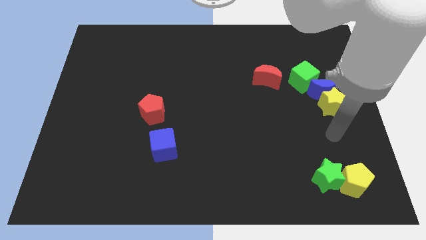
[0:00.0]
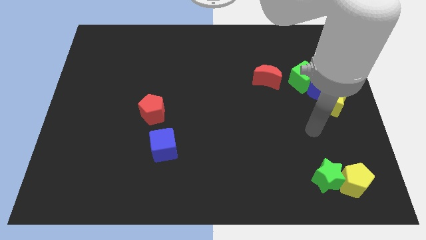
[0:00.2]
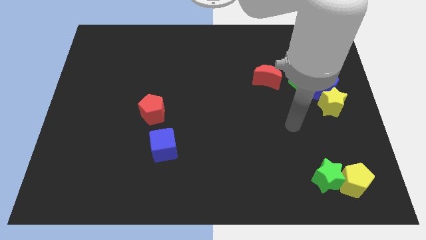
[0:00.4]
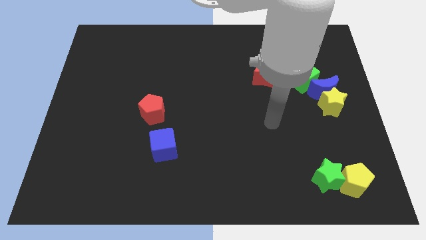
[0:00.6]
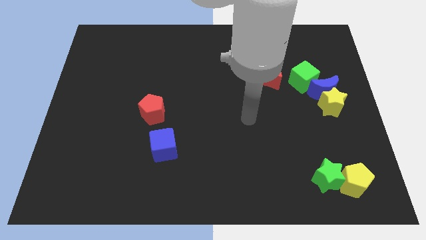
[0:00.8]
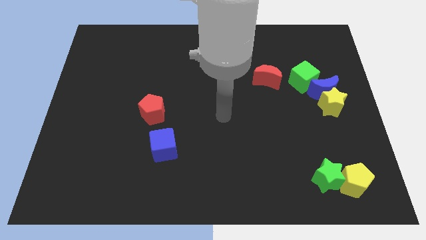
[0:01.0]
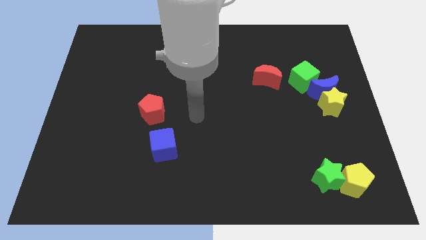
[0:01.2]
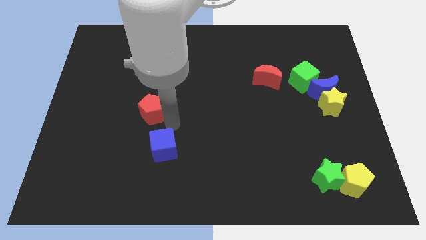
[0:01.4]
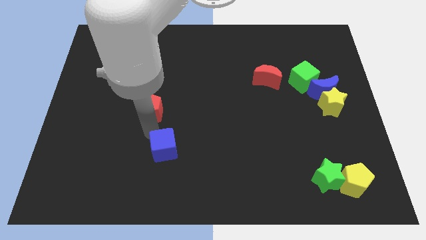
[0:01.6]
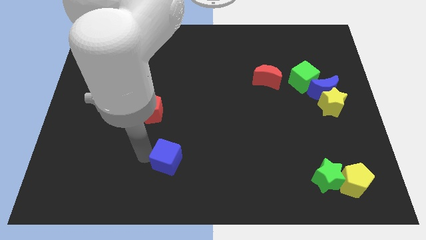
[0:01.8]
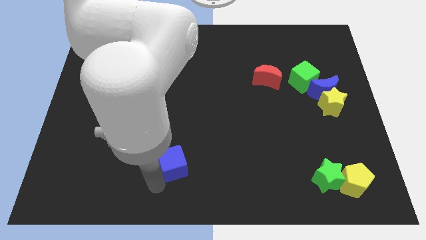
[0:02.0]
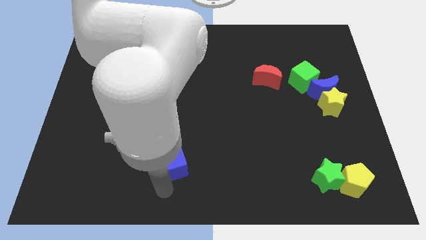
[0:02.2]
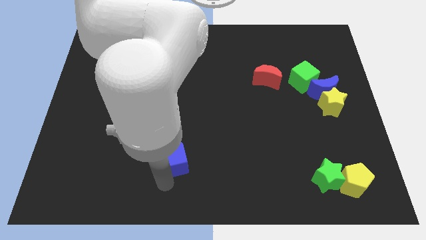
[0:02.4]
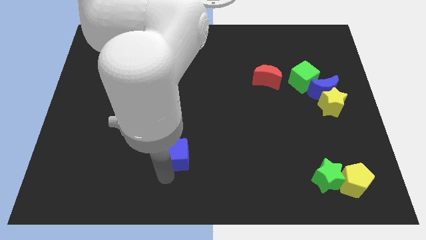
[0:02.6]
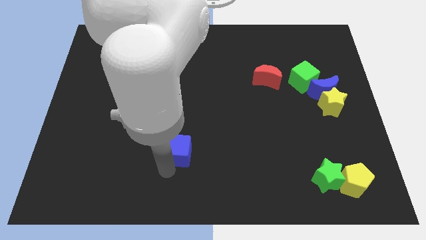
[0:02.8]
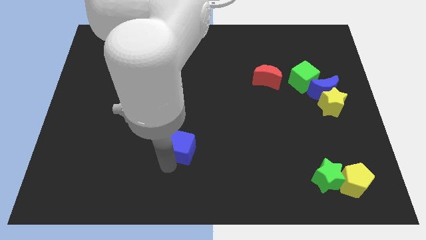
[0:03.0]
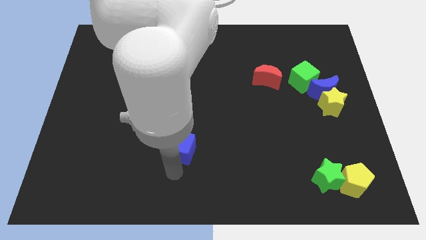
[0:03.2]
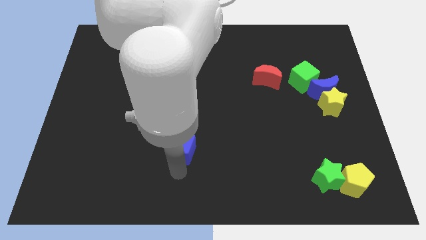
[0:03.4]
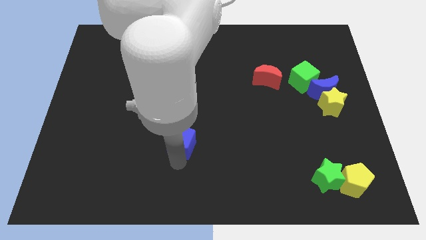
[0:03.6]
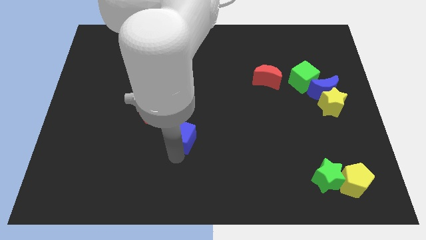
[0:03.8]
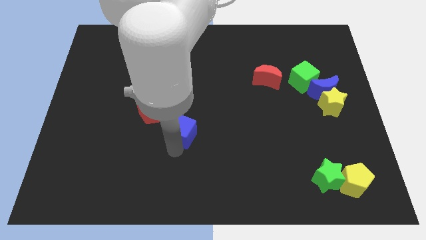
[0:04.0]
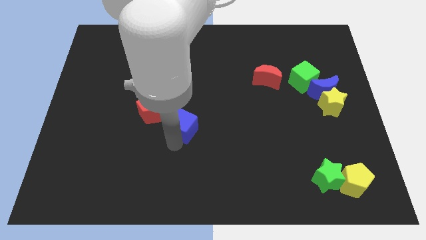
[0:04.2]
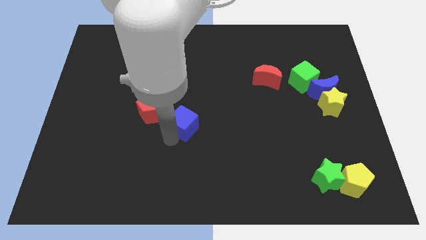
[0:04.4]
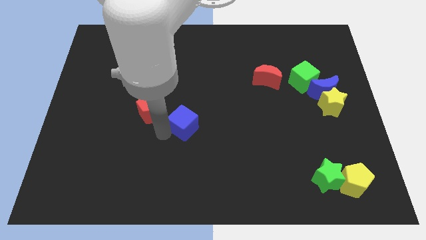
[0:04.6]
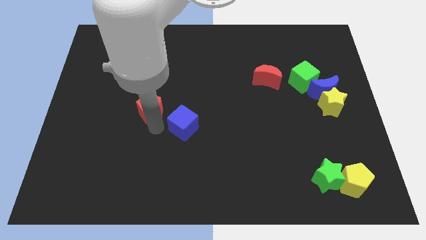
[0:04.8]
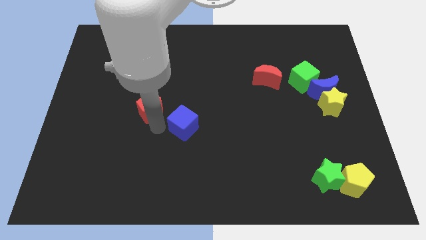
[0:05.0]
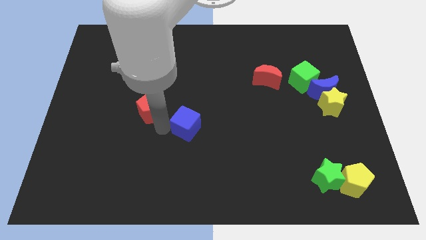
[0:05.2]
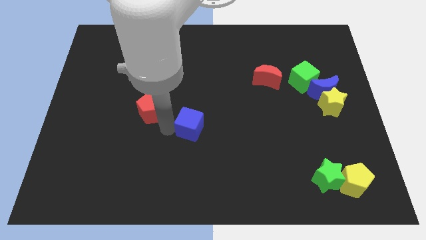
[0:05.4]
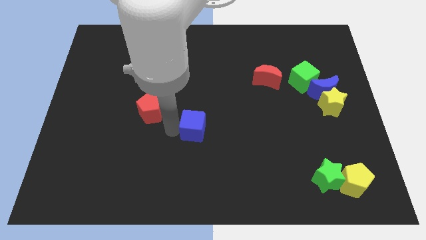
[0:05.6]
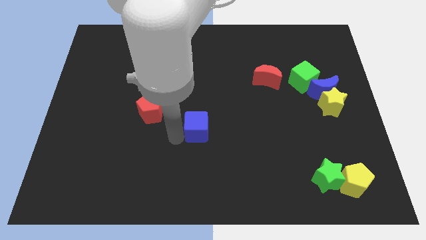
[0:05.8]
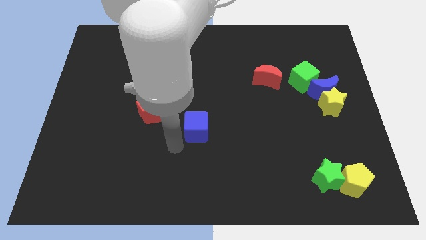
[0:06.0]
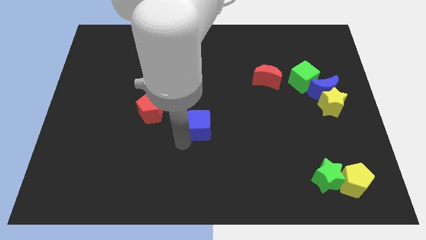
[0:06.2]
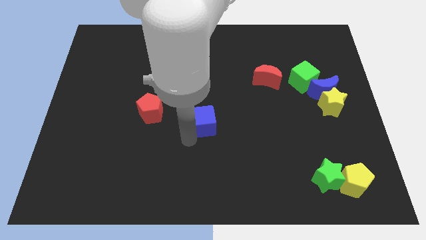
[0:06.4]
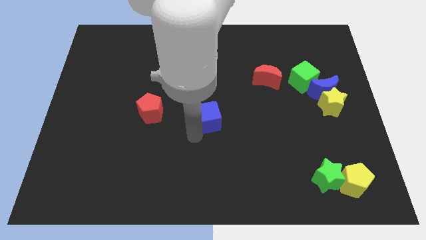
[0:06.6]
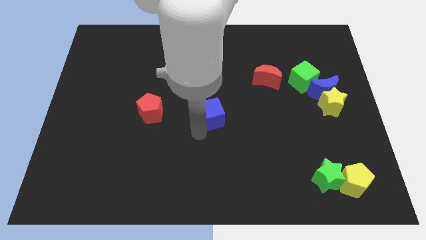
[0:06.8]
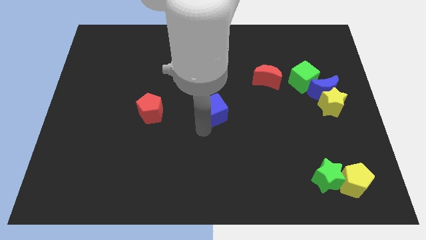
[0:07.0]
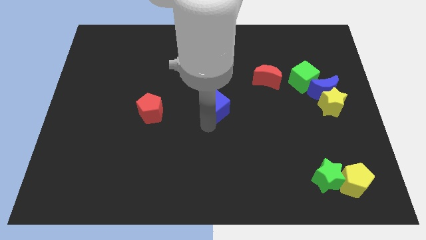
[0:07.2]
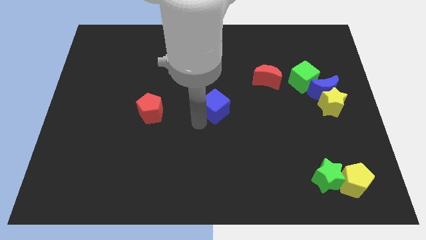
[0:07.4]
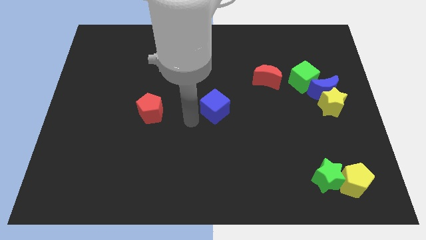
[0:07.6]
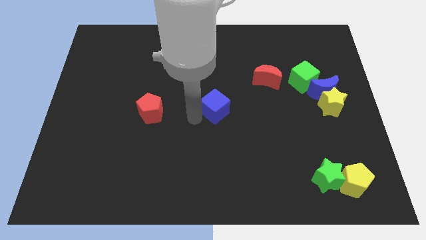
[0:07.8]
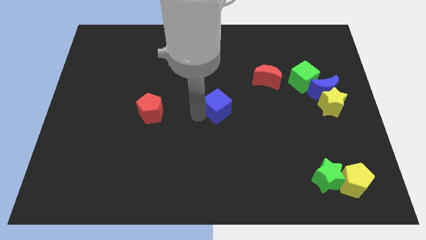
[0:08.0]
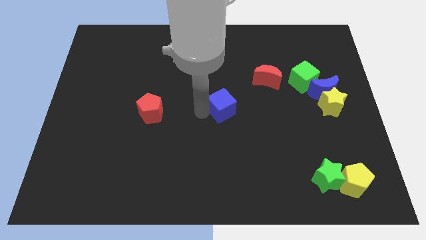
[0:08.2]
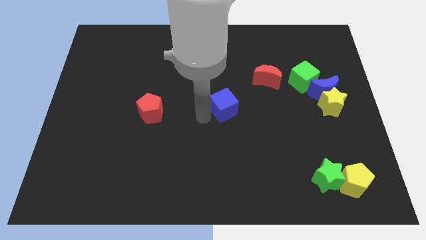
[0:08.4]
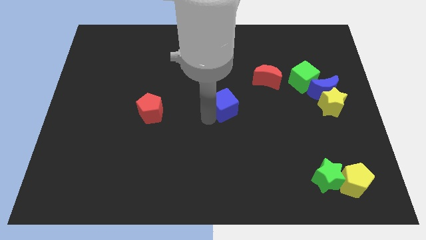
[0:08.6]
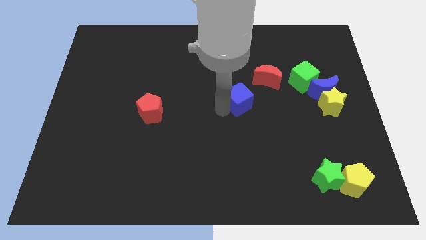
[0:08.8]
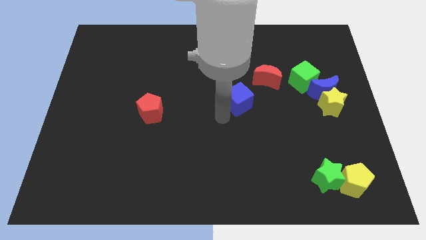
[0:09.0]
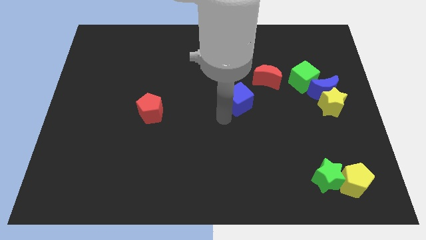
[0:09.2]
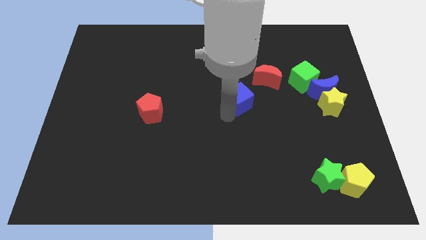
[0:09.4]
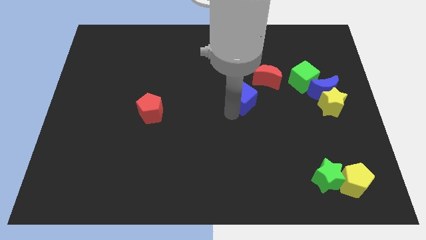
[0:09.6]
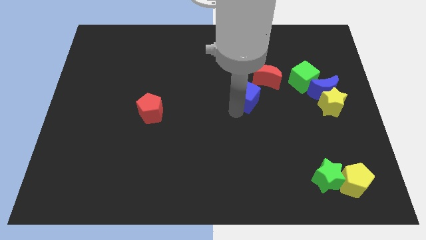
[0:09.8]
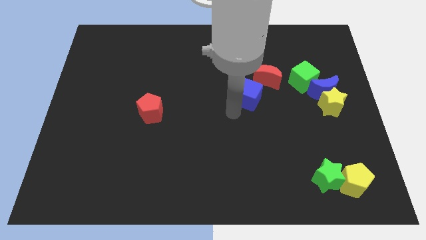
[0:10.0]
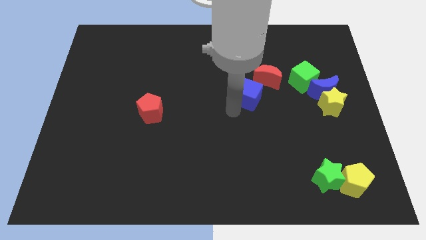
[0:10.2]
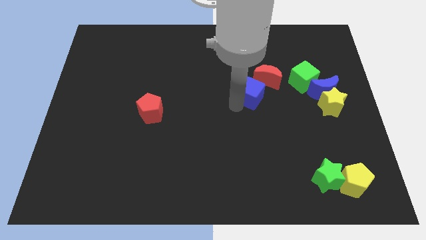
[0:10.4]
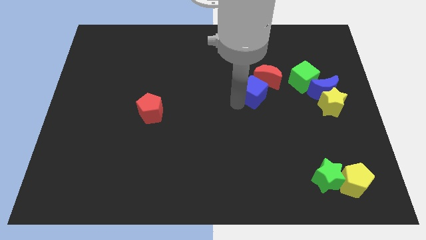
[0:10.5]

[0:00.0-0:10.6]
slide the blue cube to the red moon

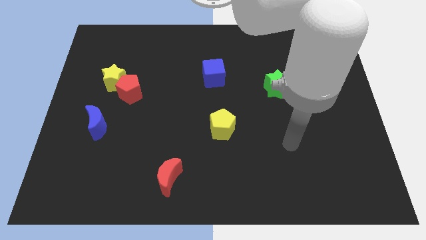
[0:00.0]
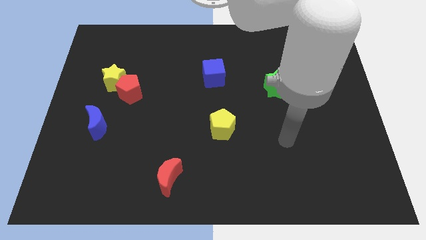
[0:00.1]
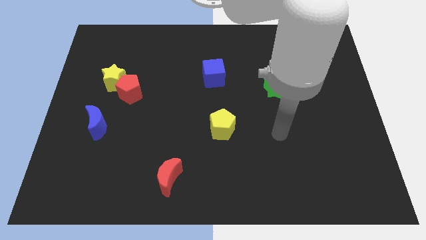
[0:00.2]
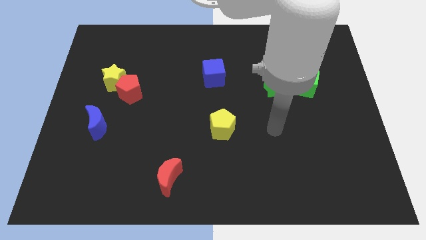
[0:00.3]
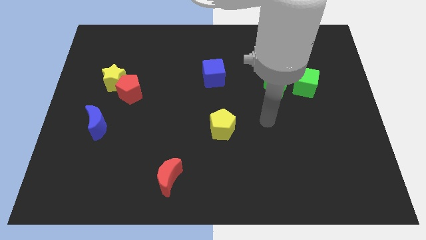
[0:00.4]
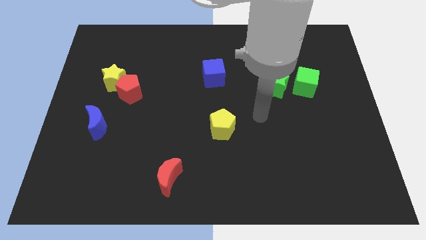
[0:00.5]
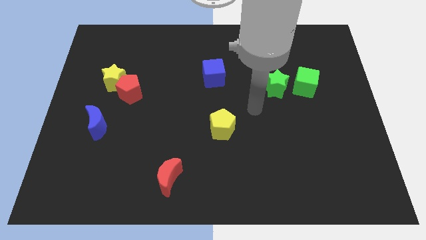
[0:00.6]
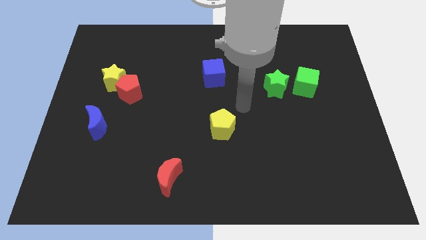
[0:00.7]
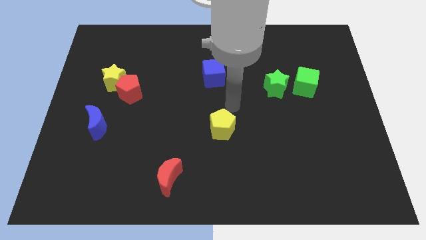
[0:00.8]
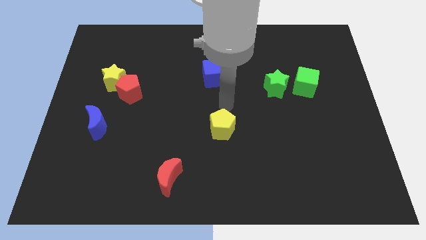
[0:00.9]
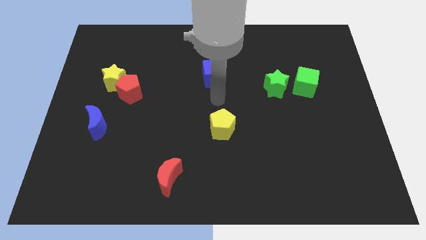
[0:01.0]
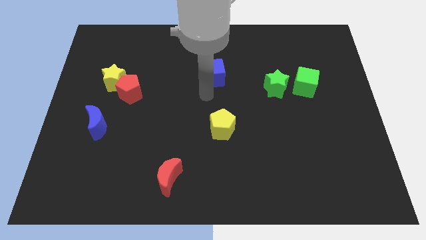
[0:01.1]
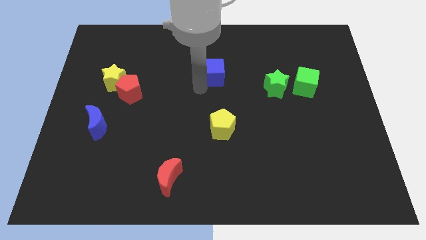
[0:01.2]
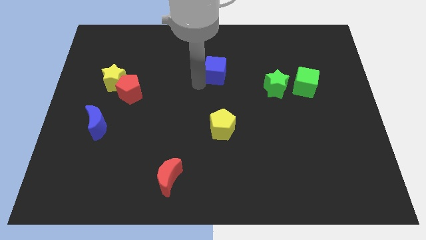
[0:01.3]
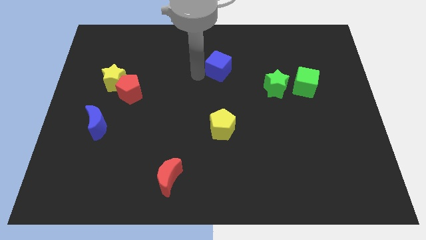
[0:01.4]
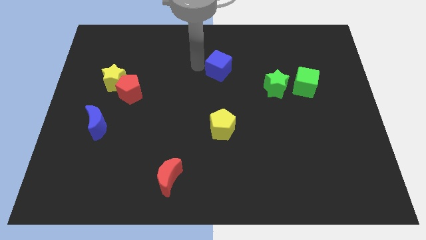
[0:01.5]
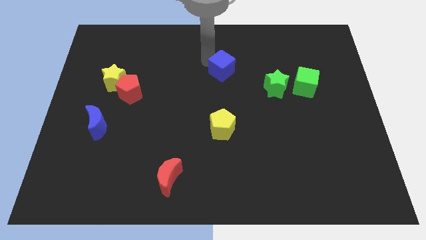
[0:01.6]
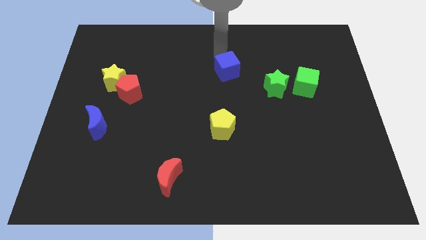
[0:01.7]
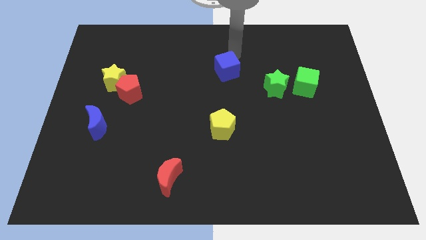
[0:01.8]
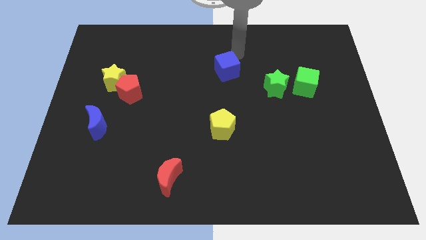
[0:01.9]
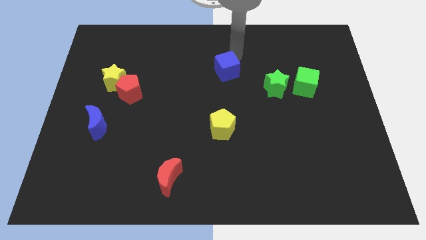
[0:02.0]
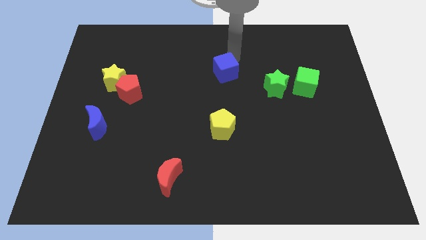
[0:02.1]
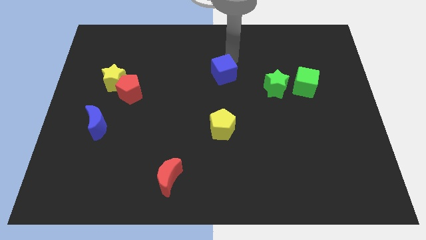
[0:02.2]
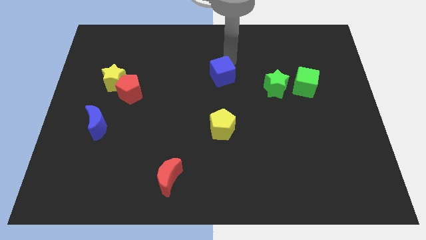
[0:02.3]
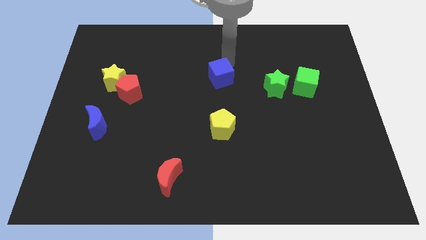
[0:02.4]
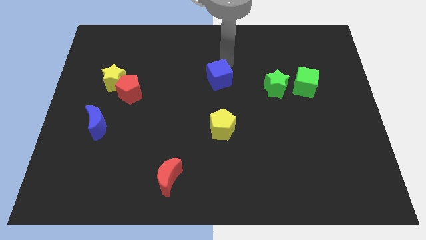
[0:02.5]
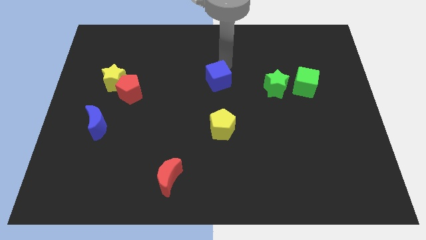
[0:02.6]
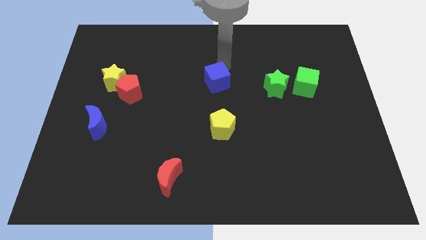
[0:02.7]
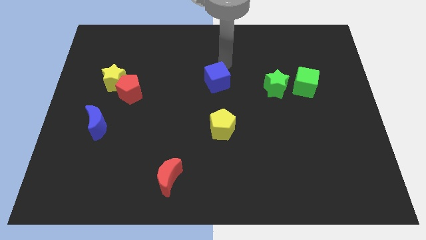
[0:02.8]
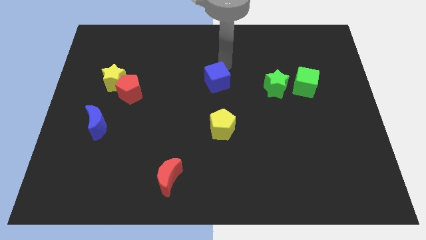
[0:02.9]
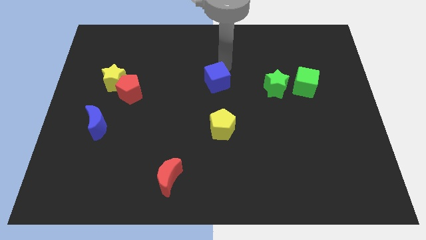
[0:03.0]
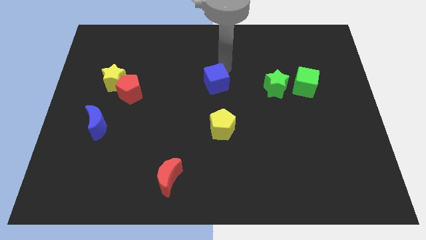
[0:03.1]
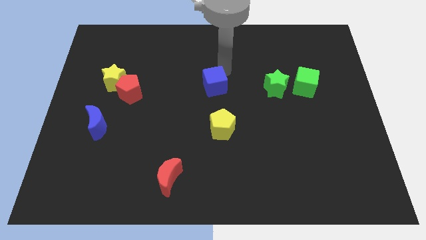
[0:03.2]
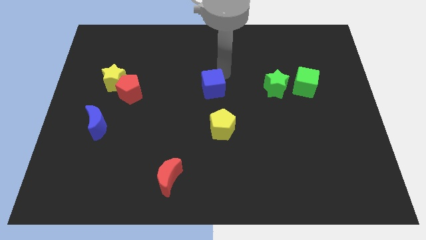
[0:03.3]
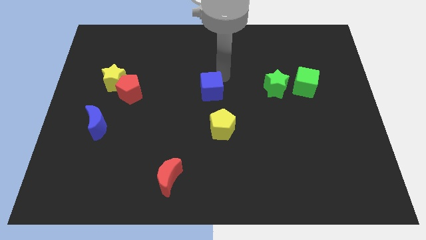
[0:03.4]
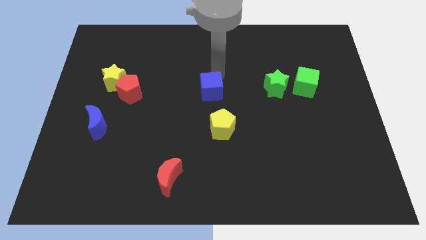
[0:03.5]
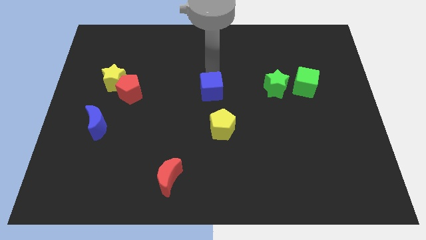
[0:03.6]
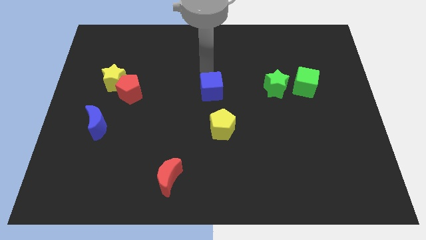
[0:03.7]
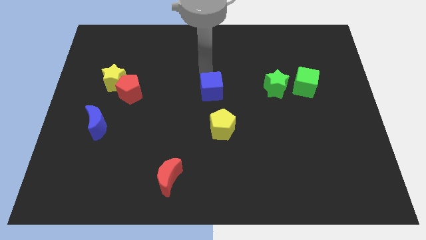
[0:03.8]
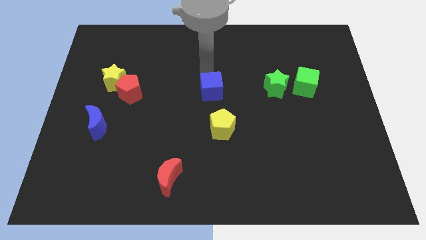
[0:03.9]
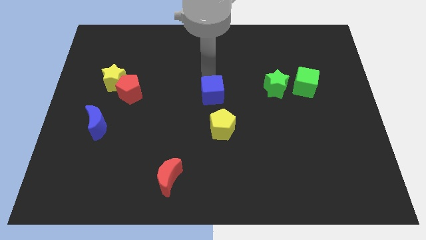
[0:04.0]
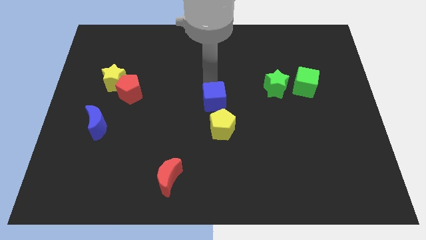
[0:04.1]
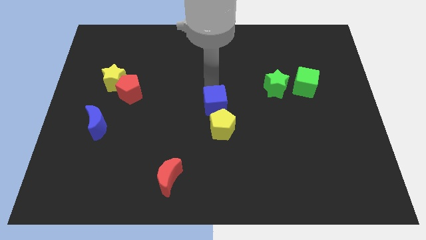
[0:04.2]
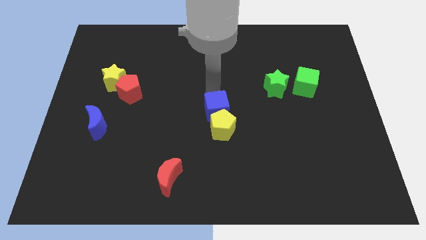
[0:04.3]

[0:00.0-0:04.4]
slide the blue cube towards the yellow pentagon
